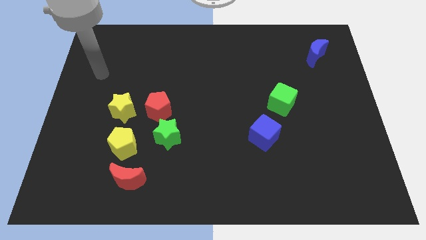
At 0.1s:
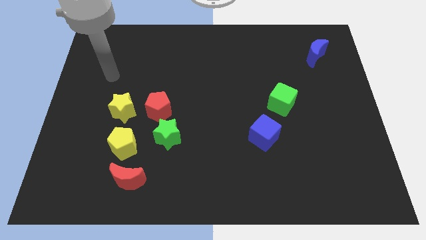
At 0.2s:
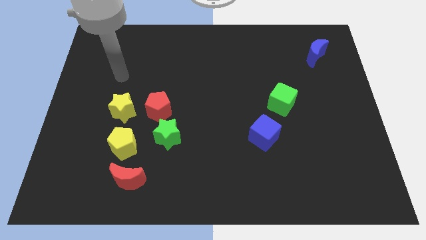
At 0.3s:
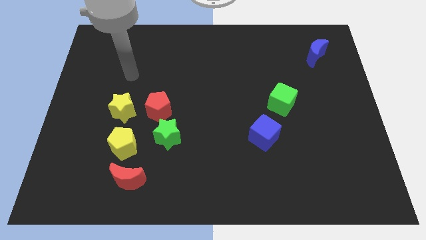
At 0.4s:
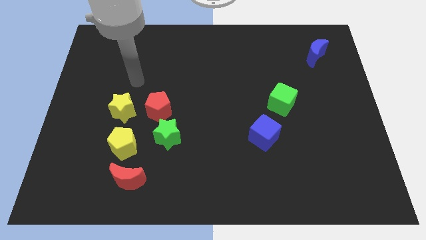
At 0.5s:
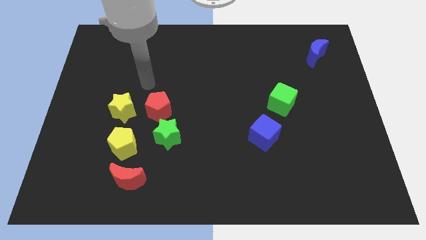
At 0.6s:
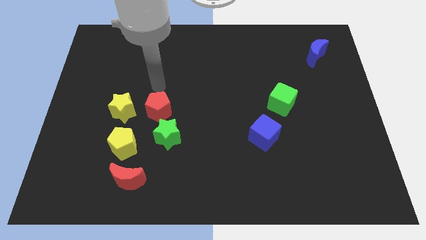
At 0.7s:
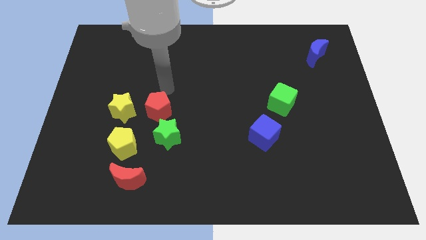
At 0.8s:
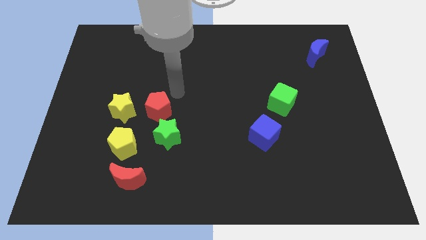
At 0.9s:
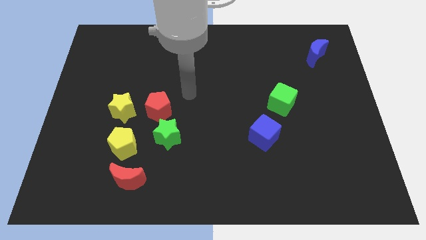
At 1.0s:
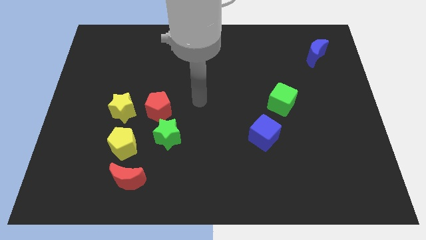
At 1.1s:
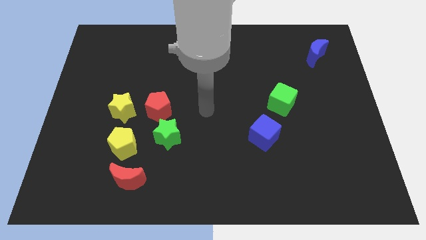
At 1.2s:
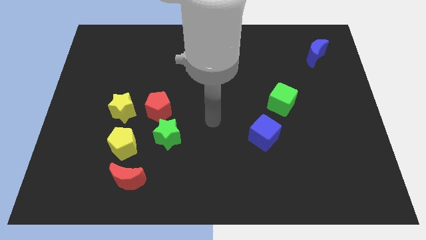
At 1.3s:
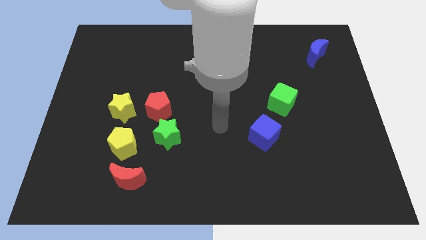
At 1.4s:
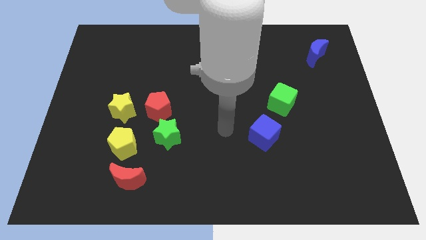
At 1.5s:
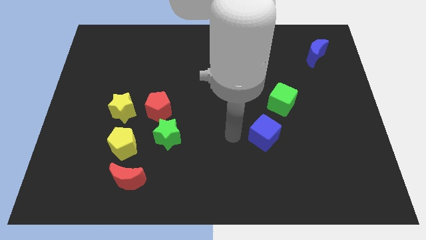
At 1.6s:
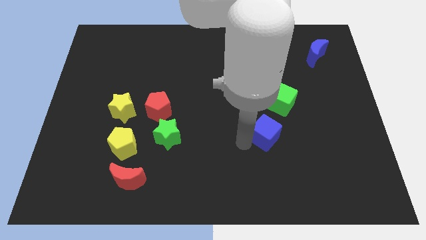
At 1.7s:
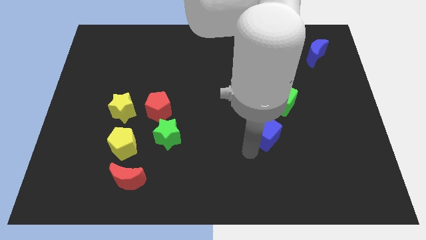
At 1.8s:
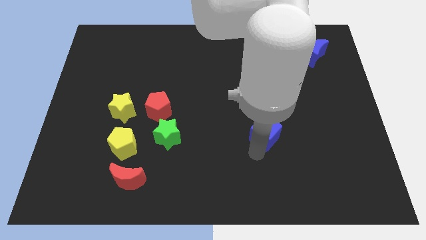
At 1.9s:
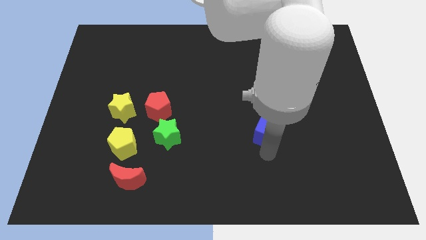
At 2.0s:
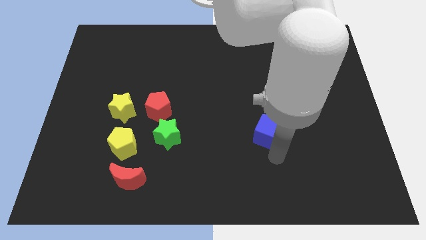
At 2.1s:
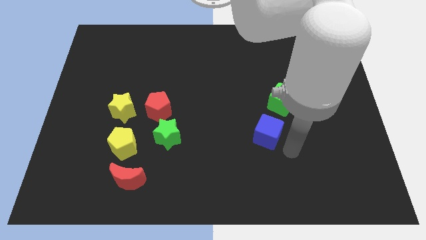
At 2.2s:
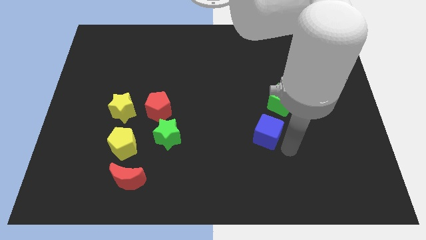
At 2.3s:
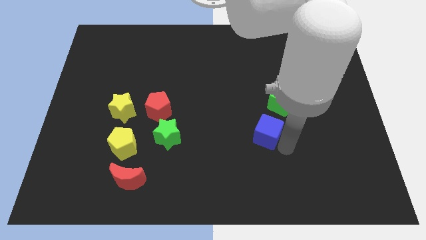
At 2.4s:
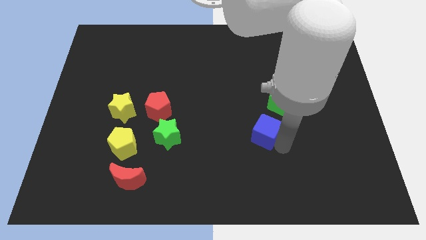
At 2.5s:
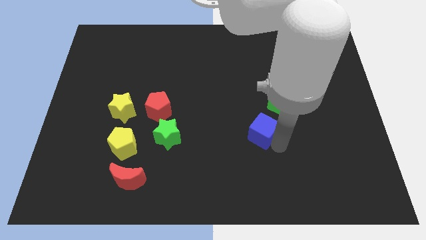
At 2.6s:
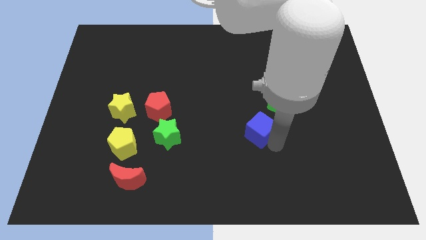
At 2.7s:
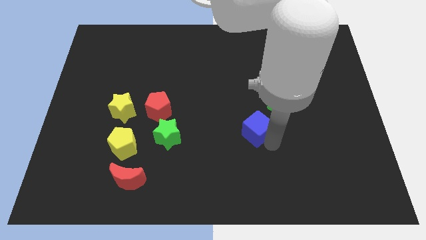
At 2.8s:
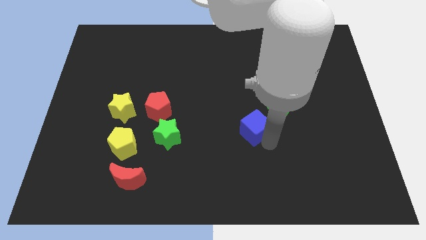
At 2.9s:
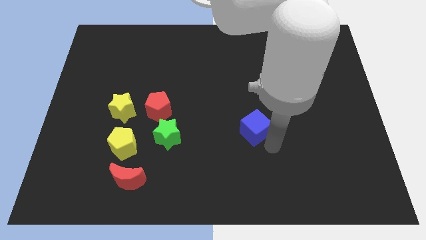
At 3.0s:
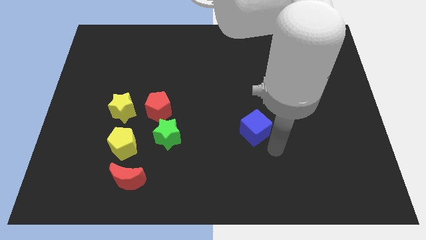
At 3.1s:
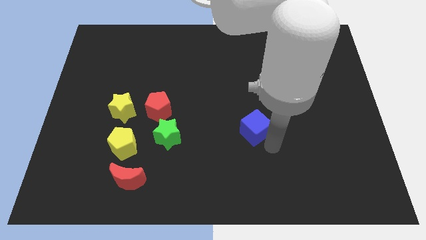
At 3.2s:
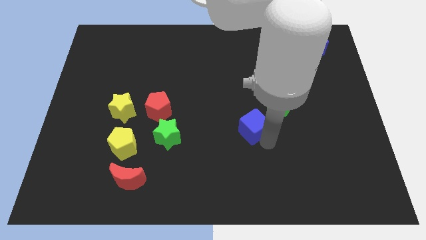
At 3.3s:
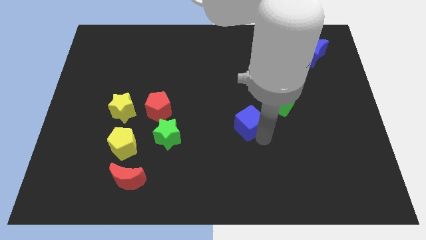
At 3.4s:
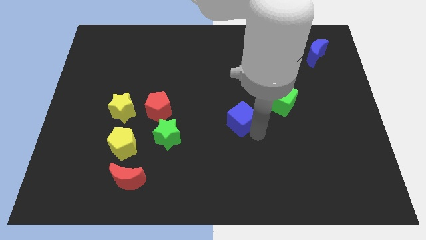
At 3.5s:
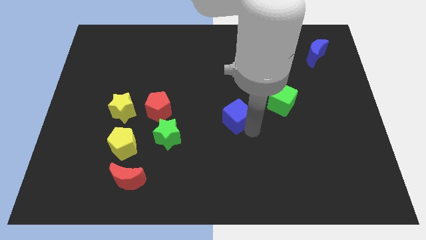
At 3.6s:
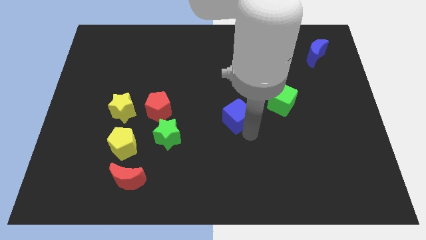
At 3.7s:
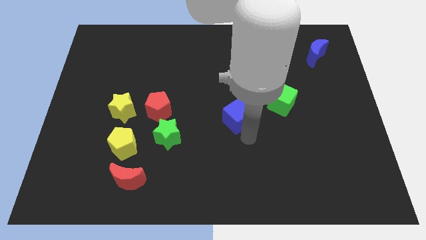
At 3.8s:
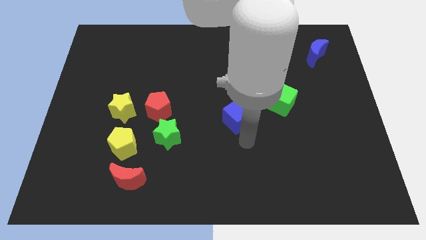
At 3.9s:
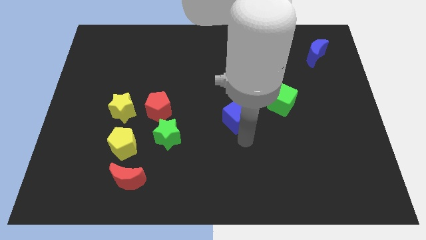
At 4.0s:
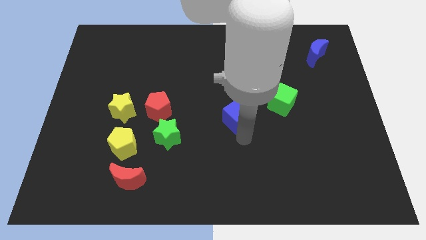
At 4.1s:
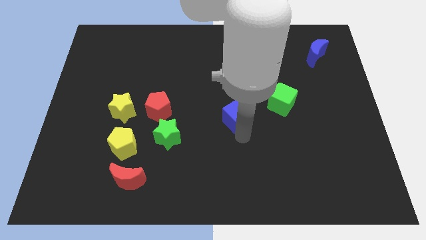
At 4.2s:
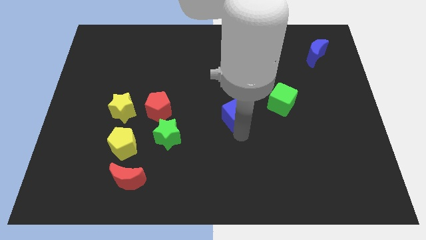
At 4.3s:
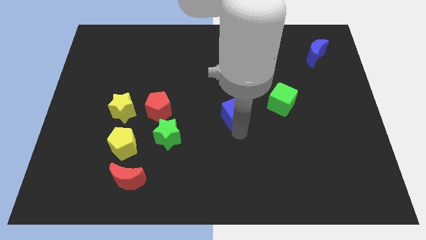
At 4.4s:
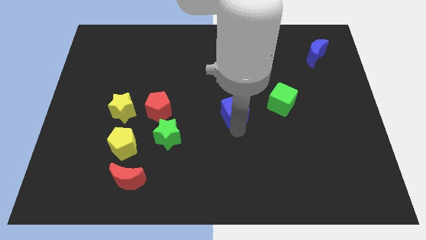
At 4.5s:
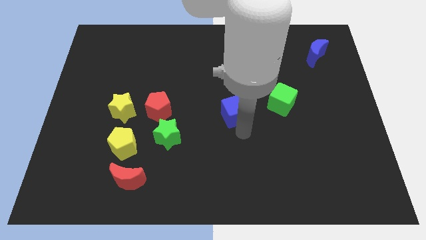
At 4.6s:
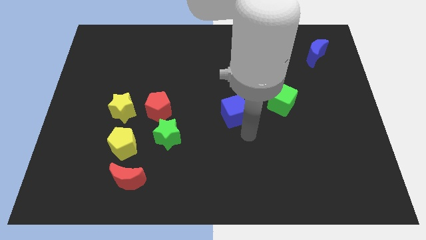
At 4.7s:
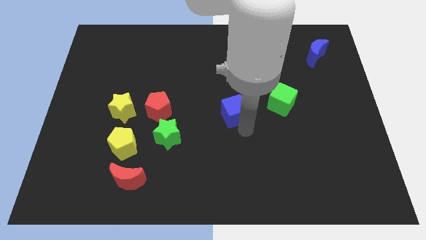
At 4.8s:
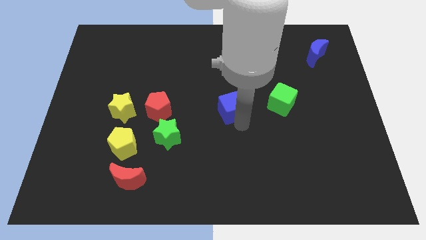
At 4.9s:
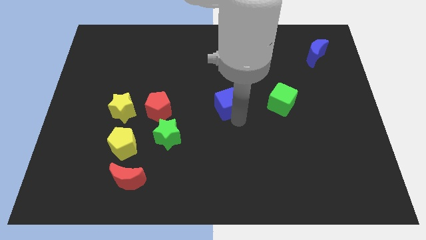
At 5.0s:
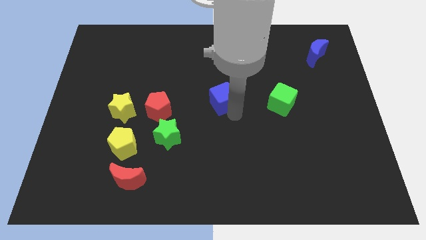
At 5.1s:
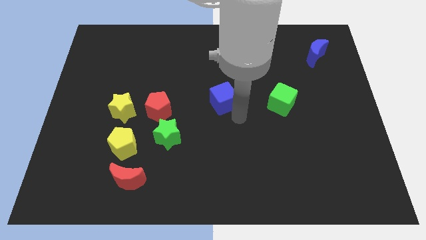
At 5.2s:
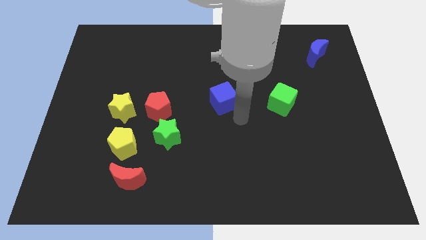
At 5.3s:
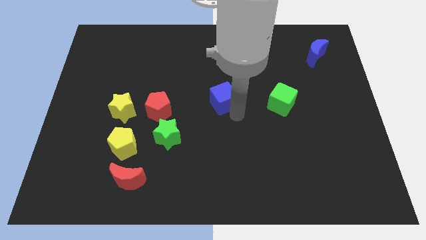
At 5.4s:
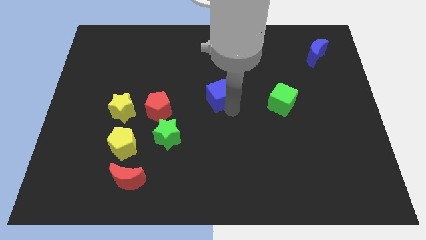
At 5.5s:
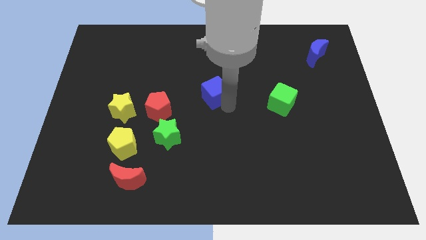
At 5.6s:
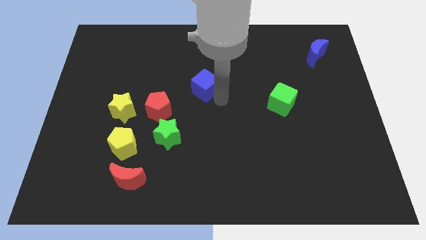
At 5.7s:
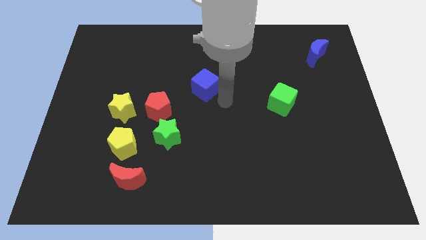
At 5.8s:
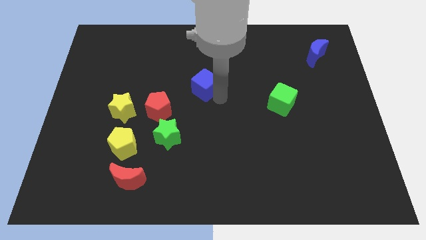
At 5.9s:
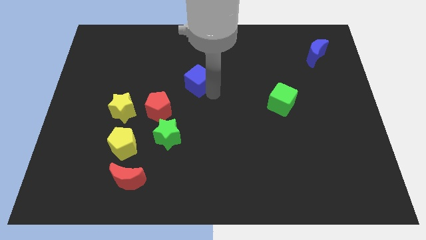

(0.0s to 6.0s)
push the blue cube upwards and to the left

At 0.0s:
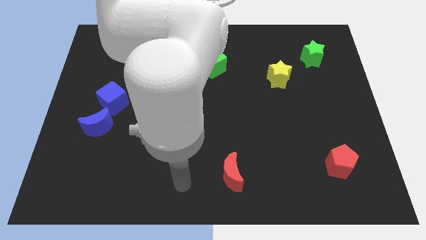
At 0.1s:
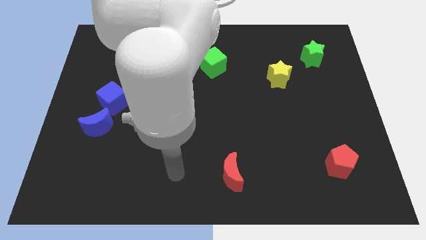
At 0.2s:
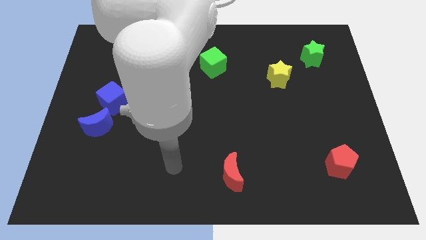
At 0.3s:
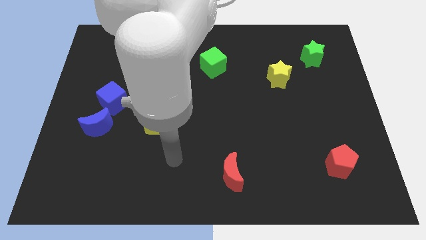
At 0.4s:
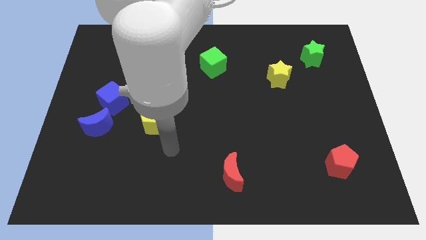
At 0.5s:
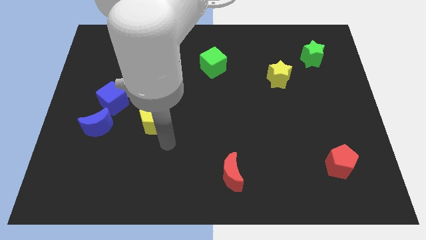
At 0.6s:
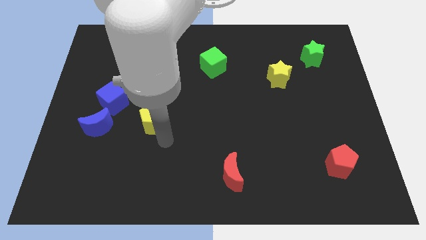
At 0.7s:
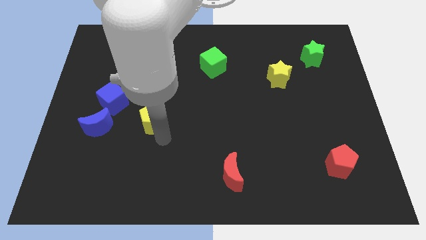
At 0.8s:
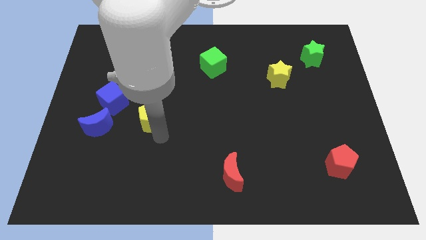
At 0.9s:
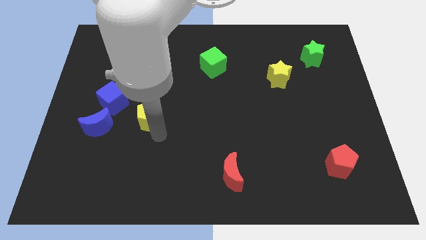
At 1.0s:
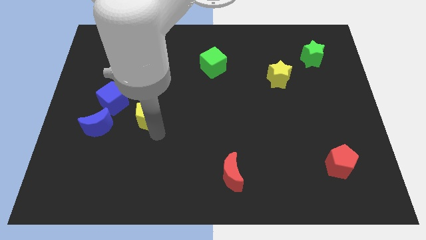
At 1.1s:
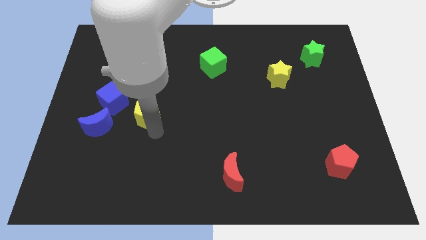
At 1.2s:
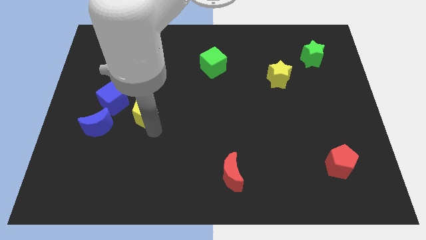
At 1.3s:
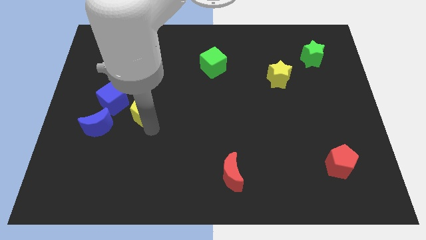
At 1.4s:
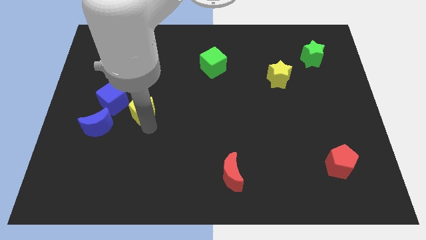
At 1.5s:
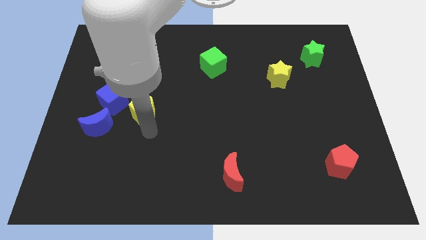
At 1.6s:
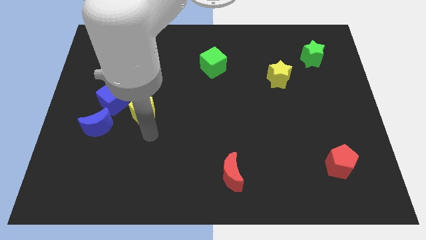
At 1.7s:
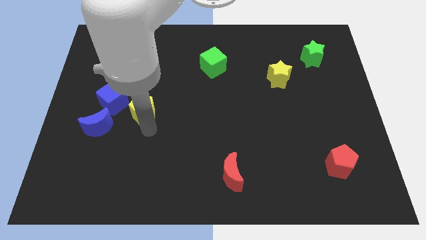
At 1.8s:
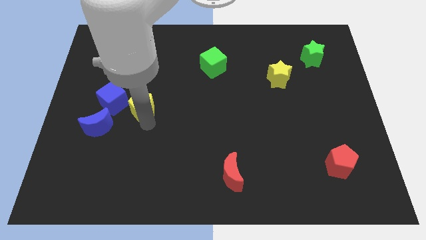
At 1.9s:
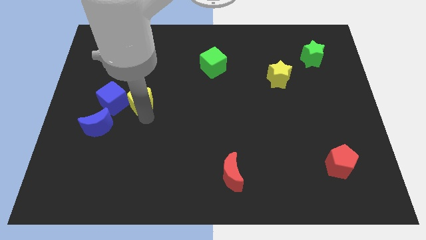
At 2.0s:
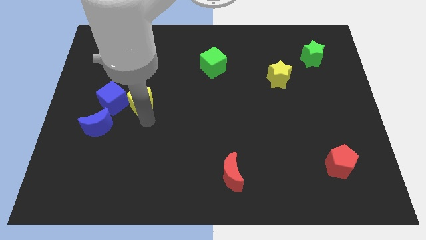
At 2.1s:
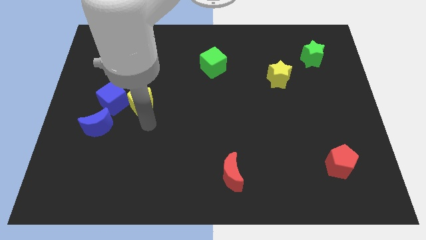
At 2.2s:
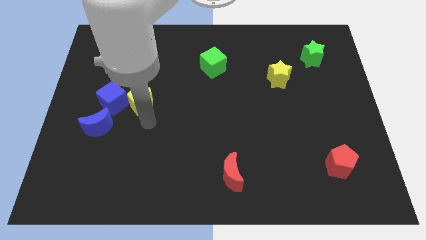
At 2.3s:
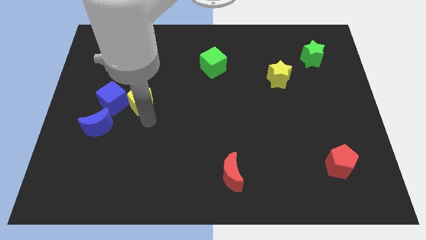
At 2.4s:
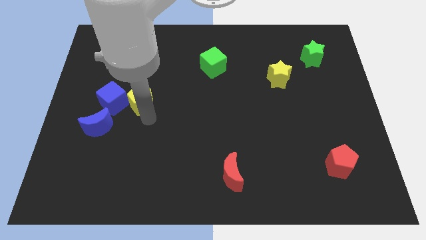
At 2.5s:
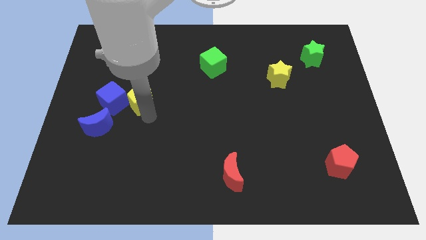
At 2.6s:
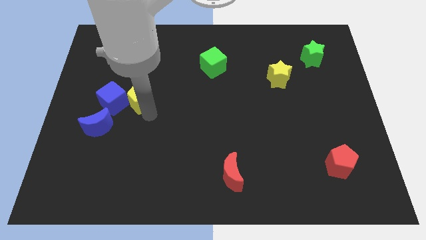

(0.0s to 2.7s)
push the yellow pentagon diagonally up and to the left somewhat
